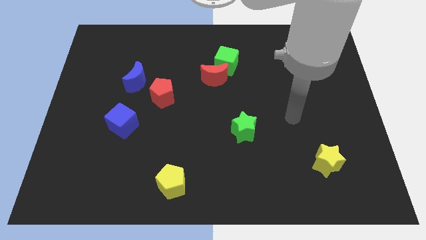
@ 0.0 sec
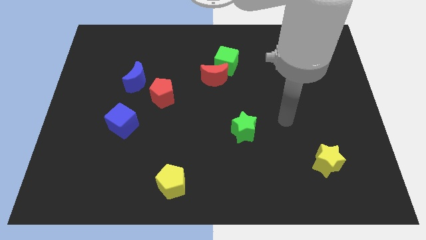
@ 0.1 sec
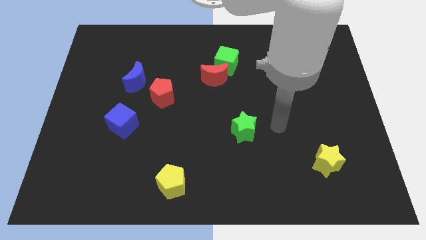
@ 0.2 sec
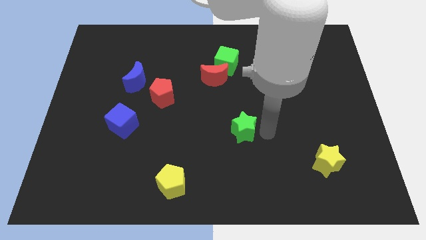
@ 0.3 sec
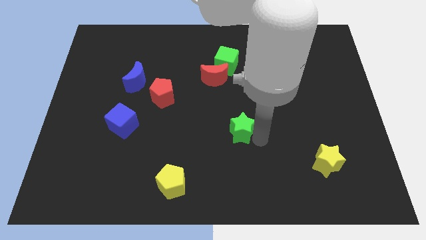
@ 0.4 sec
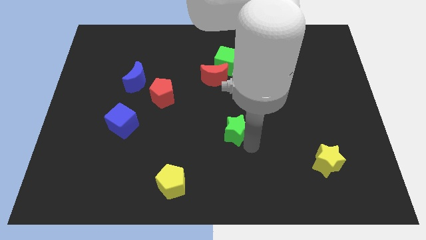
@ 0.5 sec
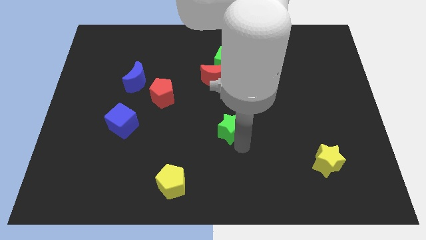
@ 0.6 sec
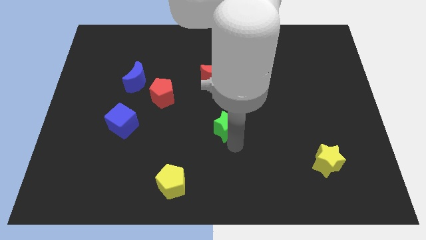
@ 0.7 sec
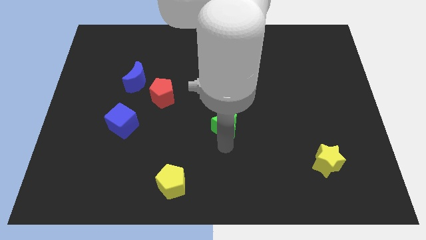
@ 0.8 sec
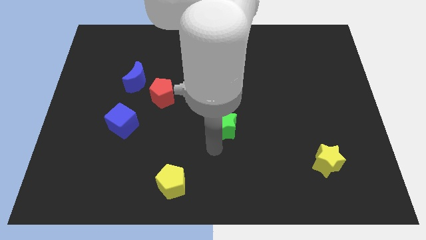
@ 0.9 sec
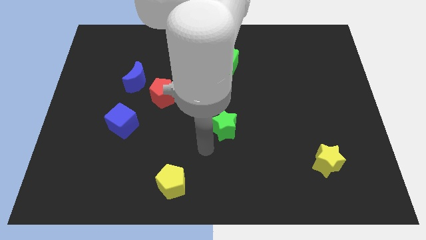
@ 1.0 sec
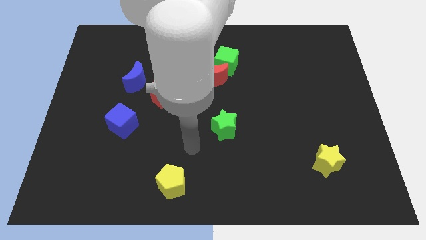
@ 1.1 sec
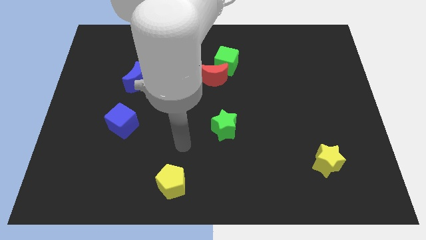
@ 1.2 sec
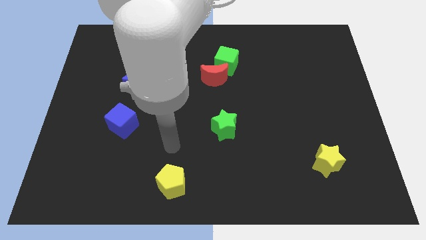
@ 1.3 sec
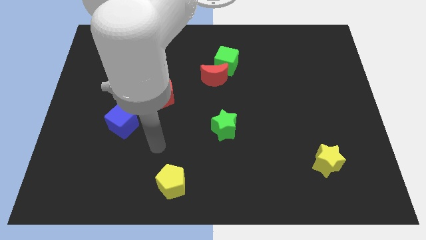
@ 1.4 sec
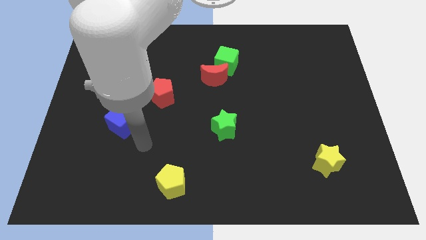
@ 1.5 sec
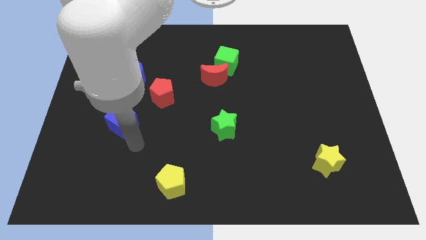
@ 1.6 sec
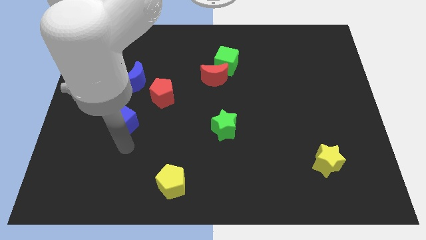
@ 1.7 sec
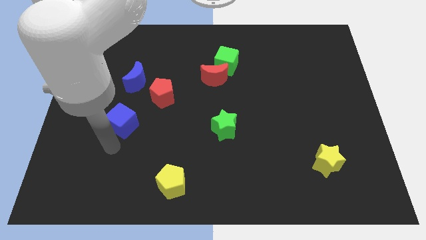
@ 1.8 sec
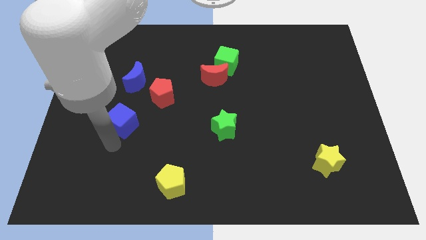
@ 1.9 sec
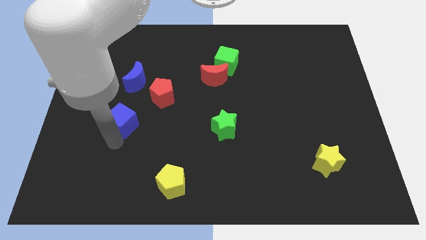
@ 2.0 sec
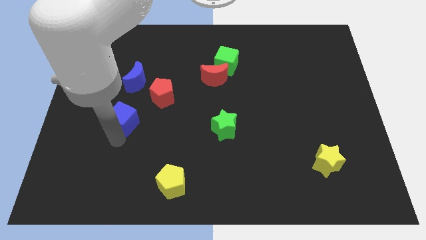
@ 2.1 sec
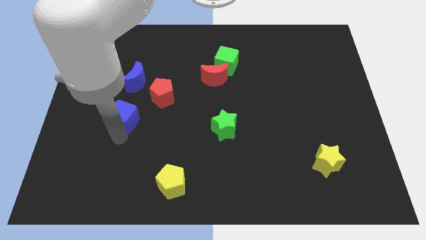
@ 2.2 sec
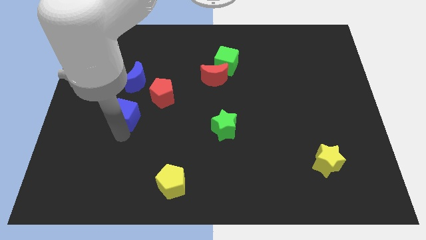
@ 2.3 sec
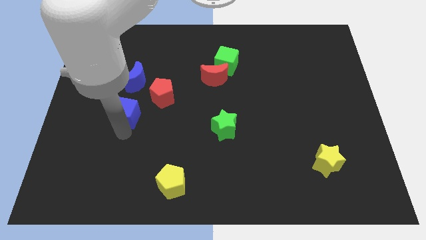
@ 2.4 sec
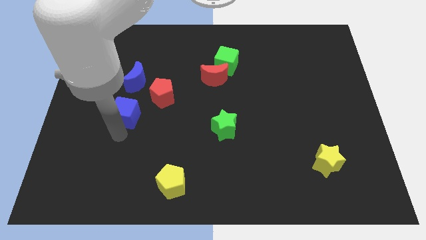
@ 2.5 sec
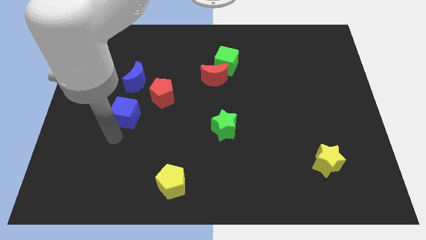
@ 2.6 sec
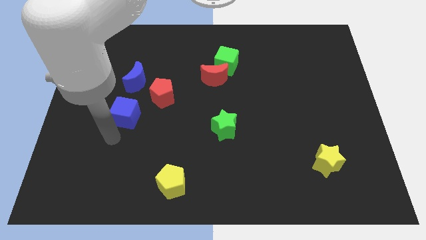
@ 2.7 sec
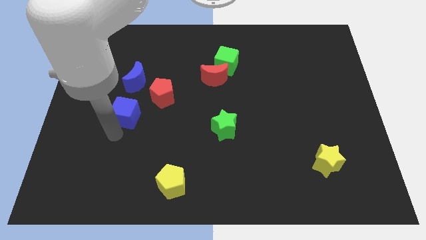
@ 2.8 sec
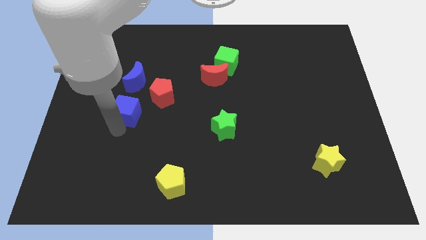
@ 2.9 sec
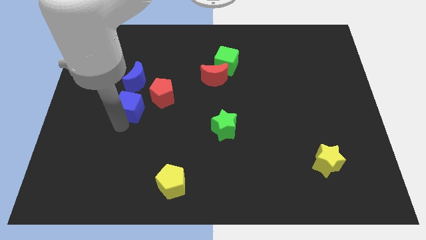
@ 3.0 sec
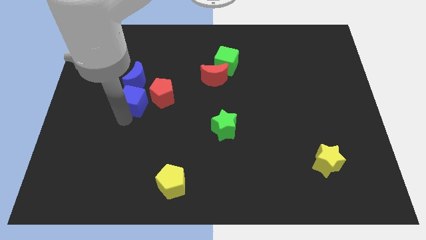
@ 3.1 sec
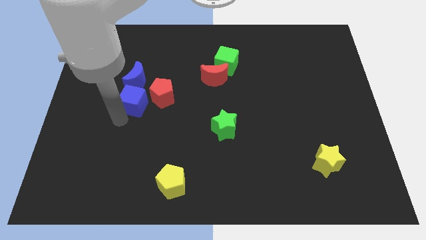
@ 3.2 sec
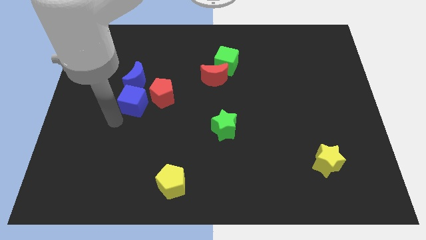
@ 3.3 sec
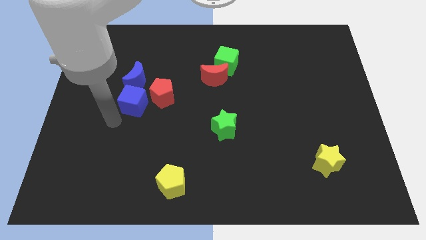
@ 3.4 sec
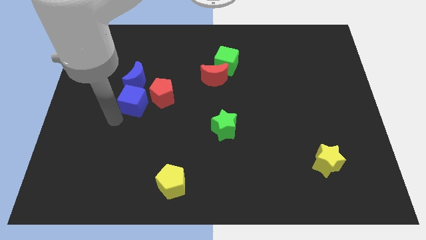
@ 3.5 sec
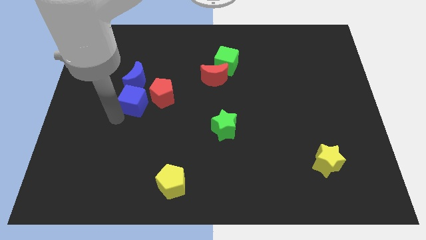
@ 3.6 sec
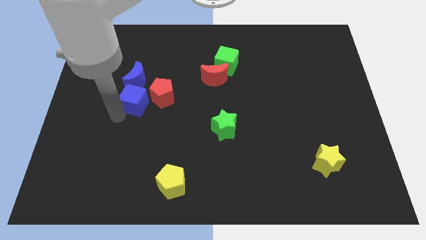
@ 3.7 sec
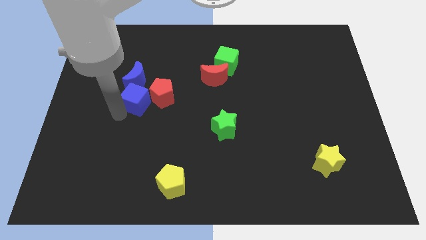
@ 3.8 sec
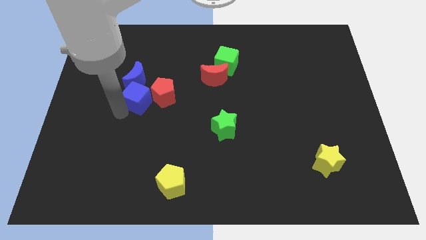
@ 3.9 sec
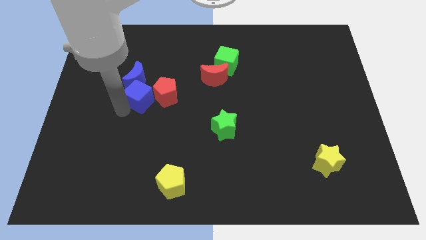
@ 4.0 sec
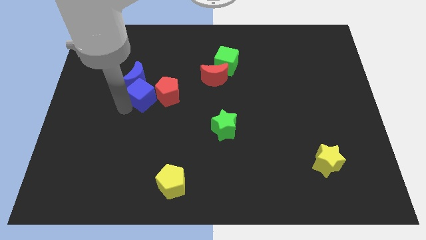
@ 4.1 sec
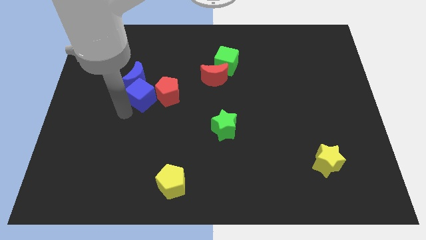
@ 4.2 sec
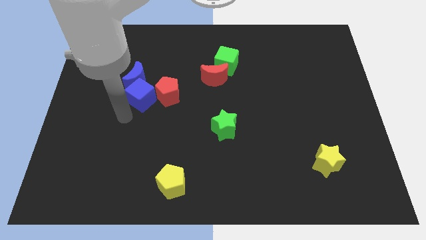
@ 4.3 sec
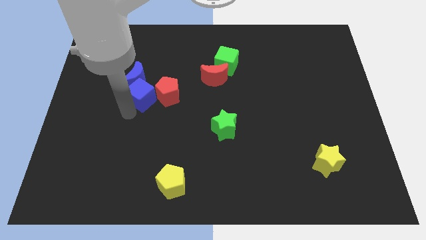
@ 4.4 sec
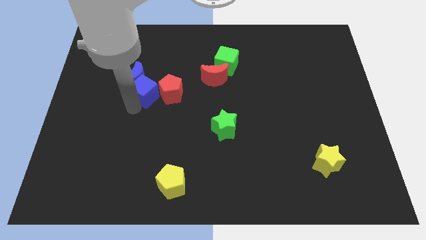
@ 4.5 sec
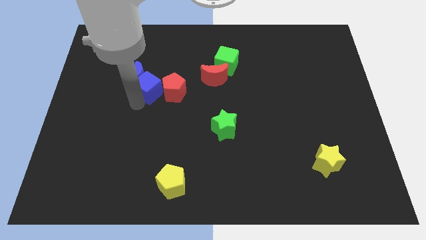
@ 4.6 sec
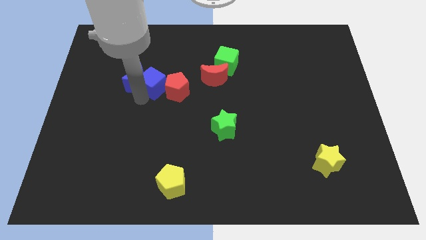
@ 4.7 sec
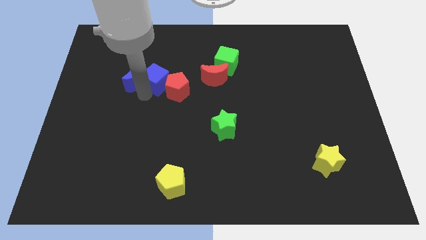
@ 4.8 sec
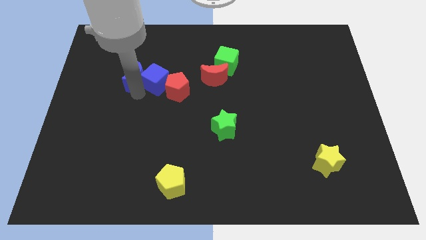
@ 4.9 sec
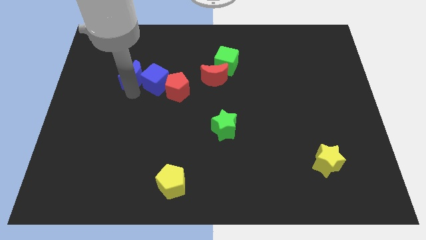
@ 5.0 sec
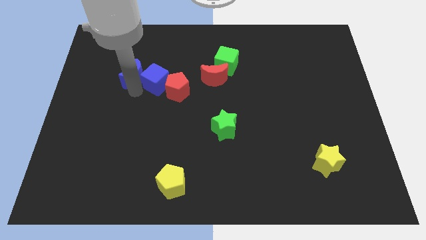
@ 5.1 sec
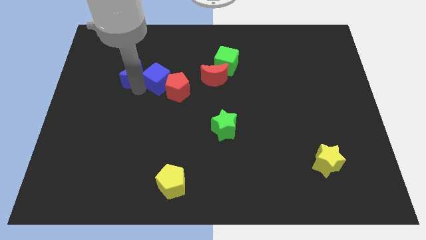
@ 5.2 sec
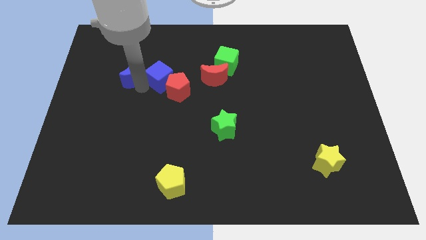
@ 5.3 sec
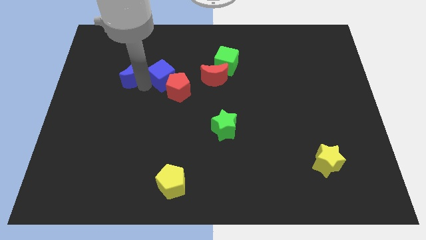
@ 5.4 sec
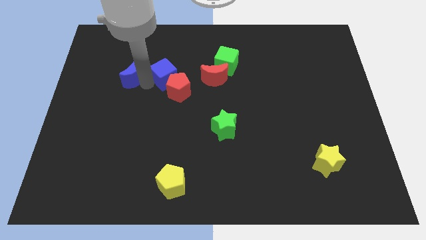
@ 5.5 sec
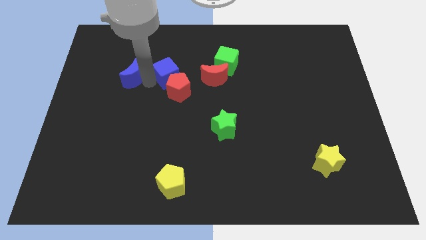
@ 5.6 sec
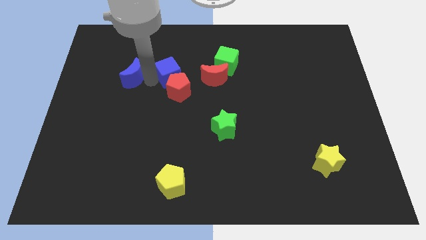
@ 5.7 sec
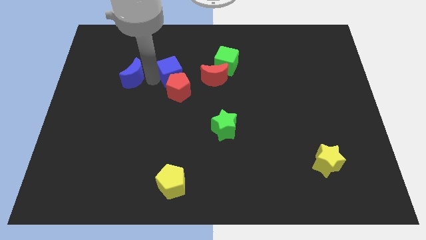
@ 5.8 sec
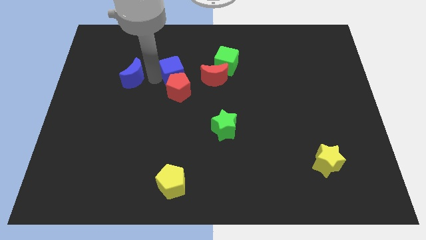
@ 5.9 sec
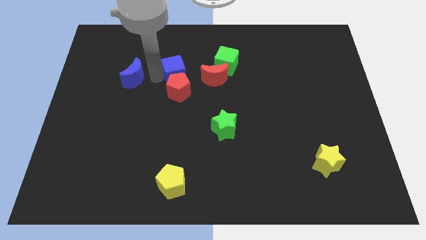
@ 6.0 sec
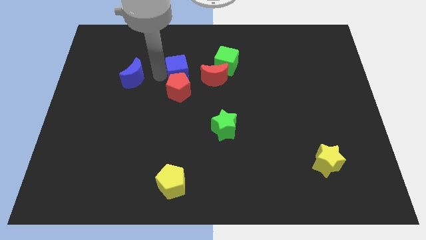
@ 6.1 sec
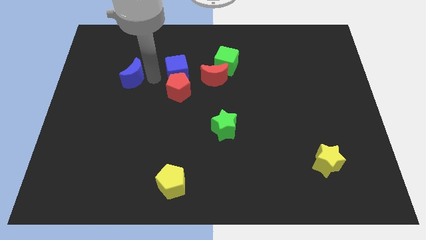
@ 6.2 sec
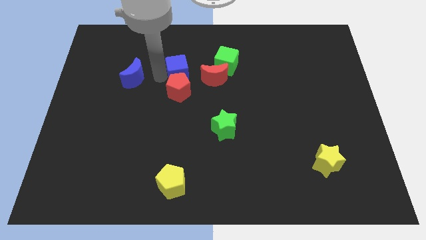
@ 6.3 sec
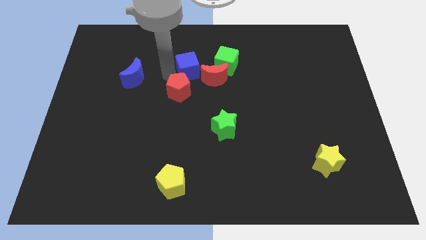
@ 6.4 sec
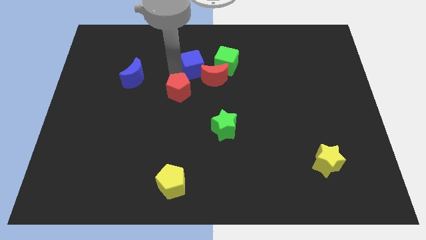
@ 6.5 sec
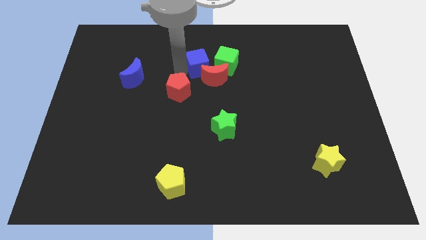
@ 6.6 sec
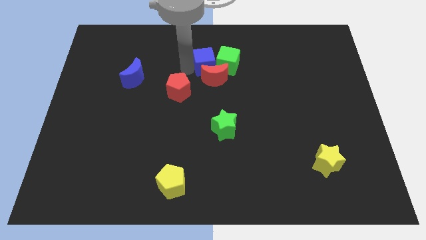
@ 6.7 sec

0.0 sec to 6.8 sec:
push the blue cube towards the green cube

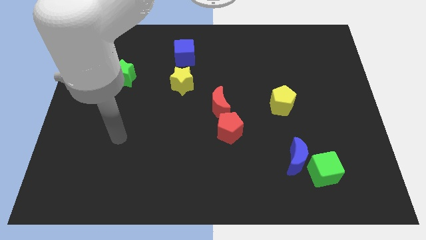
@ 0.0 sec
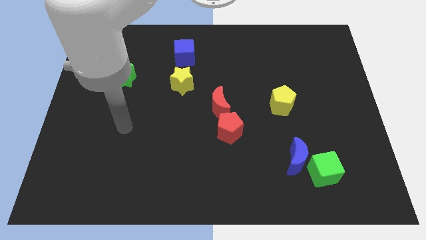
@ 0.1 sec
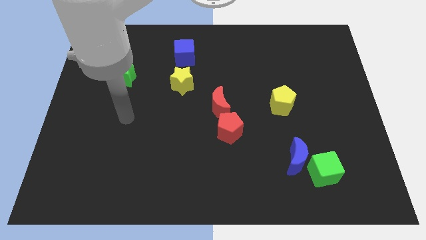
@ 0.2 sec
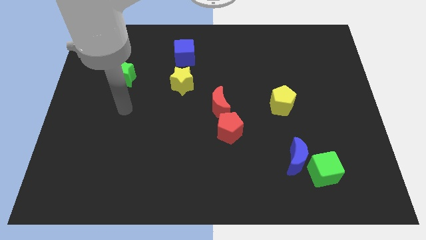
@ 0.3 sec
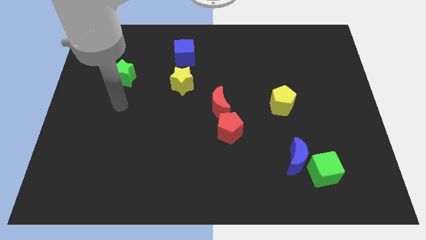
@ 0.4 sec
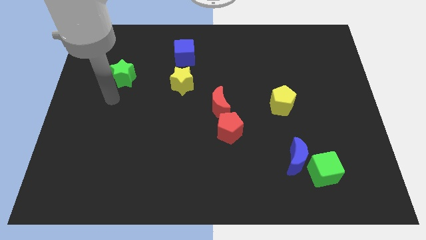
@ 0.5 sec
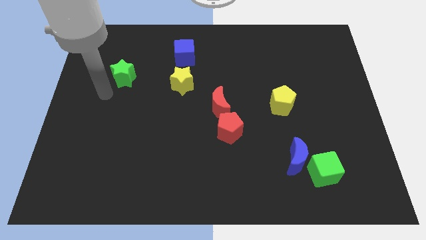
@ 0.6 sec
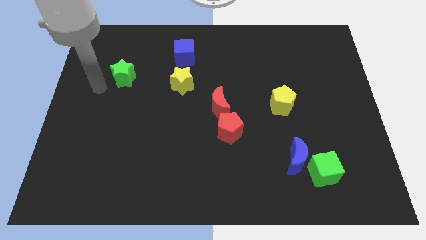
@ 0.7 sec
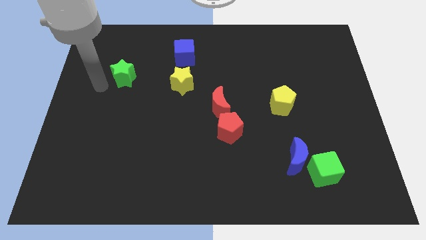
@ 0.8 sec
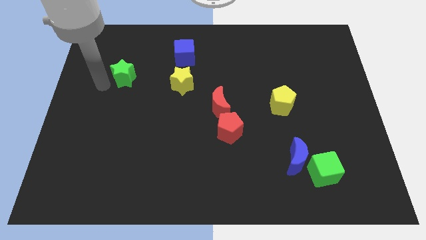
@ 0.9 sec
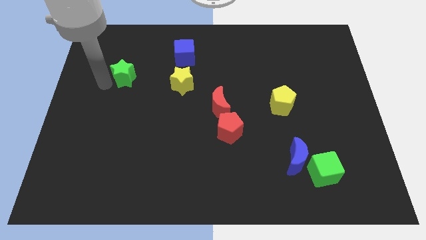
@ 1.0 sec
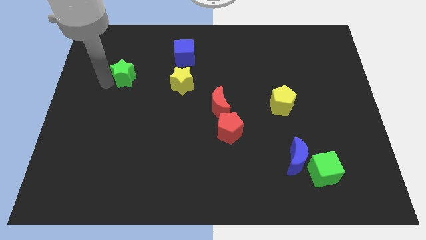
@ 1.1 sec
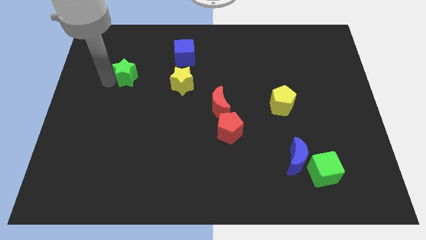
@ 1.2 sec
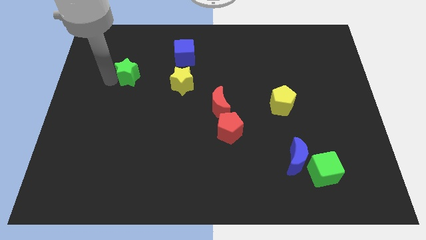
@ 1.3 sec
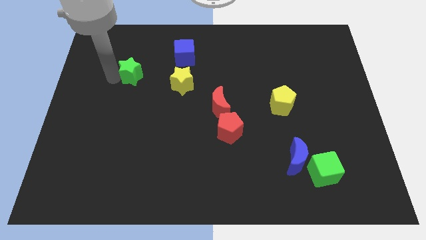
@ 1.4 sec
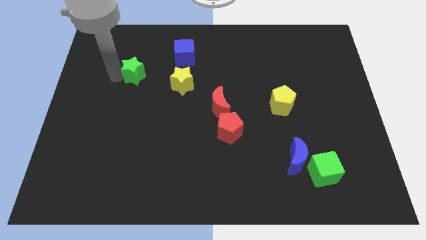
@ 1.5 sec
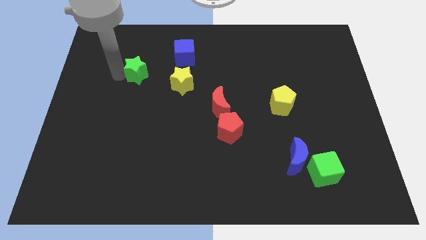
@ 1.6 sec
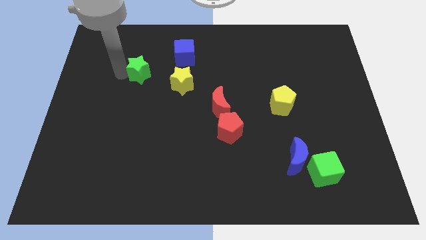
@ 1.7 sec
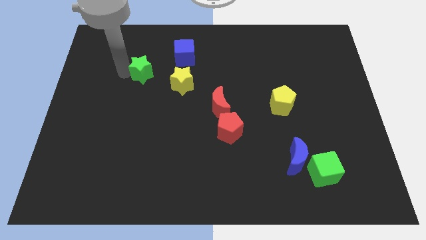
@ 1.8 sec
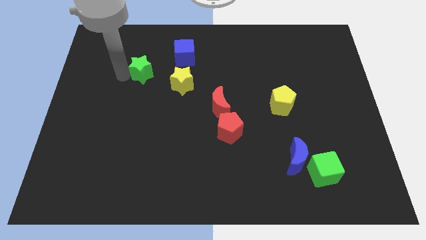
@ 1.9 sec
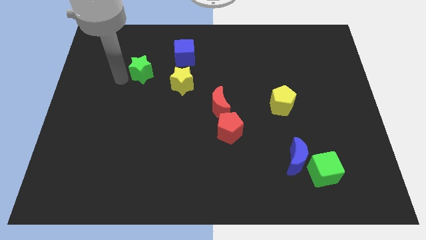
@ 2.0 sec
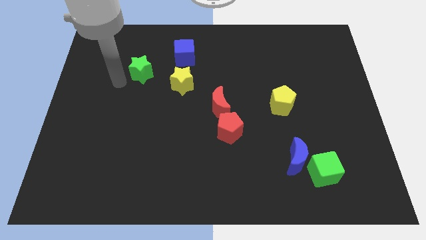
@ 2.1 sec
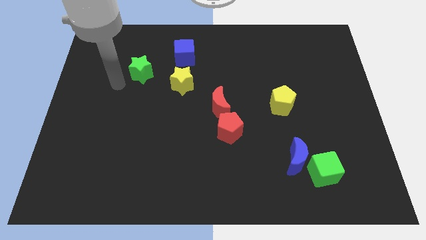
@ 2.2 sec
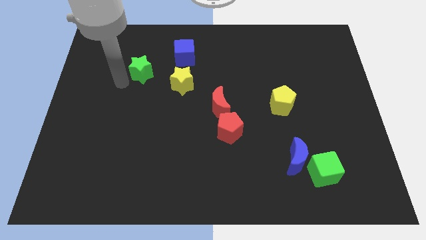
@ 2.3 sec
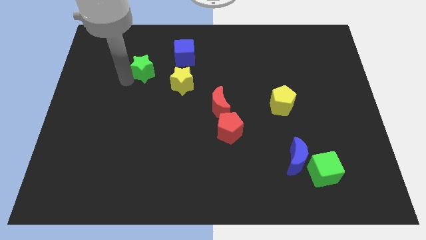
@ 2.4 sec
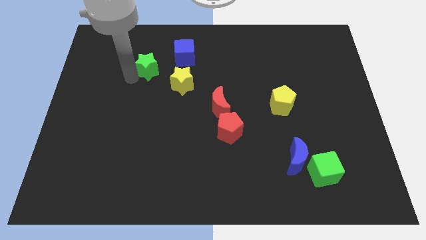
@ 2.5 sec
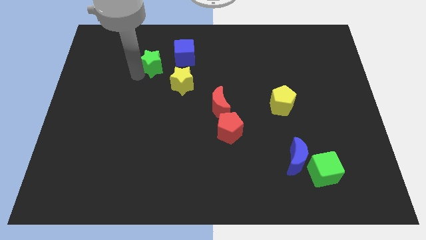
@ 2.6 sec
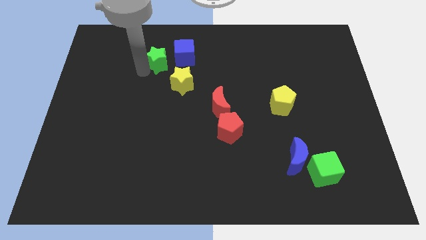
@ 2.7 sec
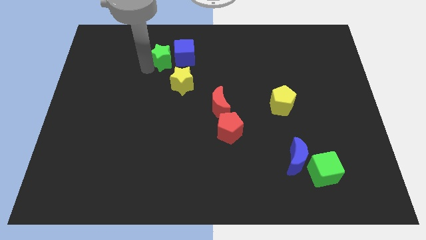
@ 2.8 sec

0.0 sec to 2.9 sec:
push the green star next to the blue cube
